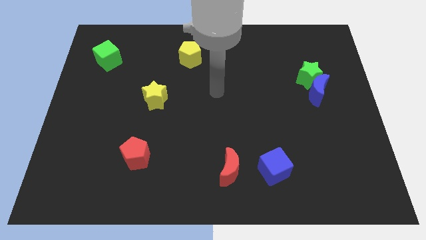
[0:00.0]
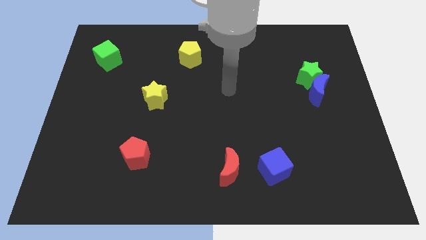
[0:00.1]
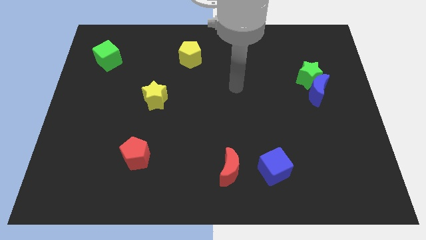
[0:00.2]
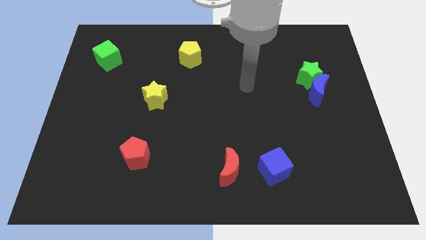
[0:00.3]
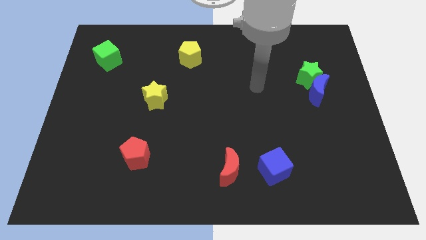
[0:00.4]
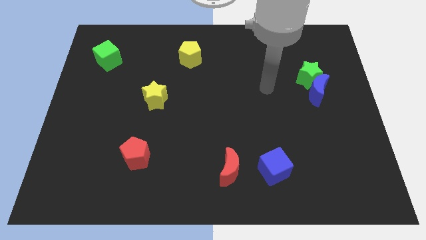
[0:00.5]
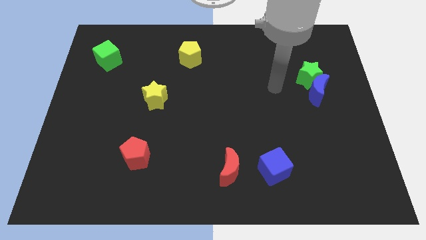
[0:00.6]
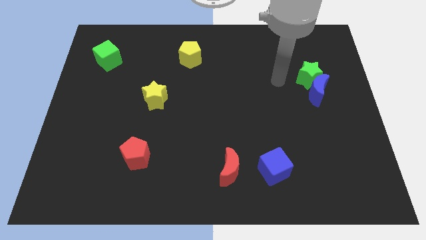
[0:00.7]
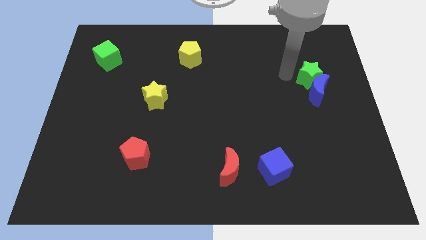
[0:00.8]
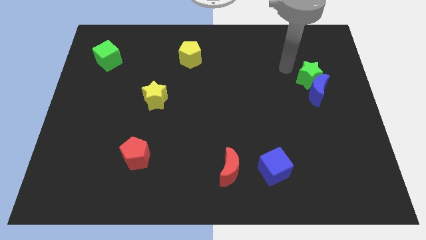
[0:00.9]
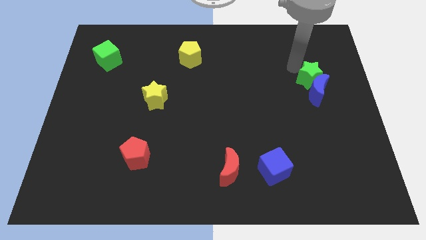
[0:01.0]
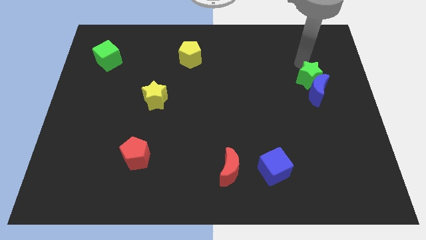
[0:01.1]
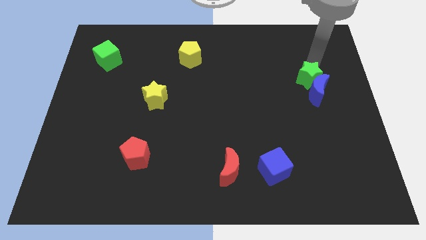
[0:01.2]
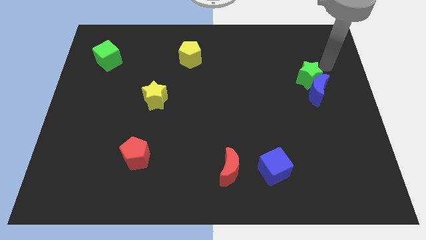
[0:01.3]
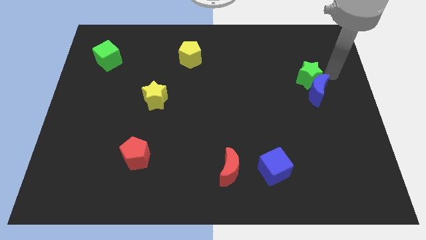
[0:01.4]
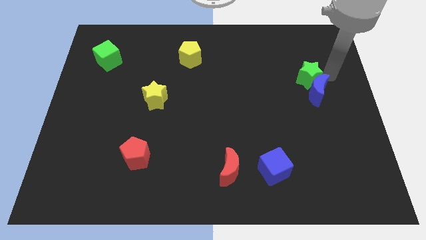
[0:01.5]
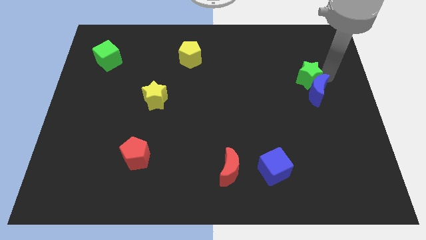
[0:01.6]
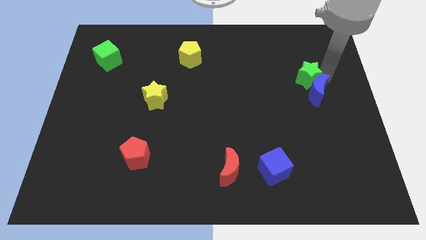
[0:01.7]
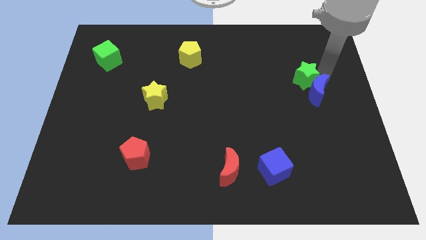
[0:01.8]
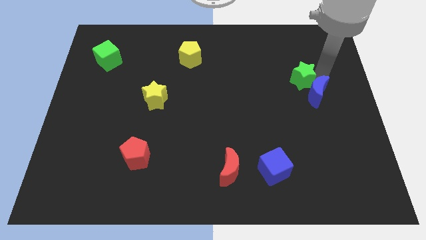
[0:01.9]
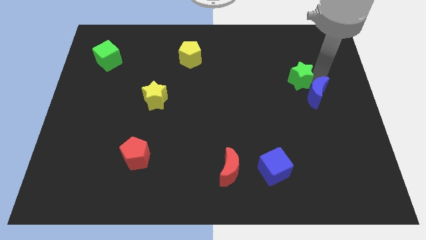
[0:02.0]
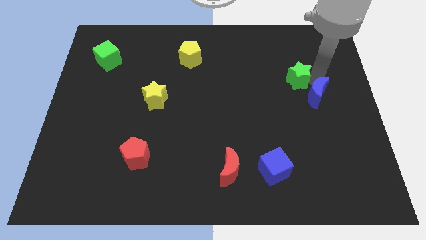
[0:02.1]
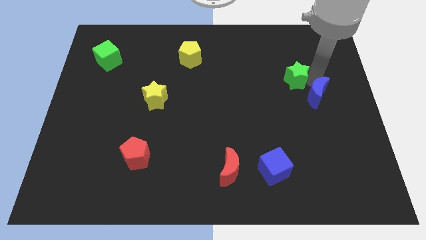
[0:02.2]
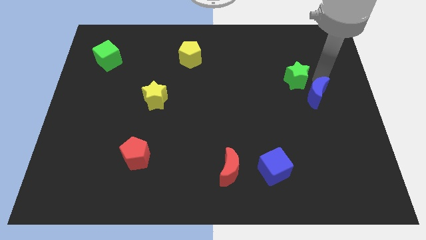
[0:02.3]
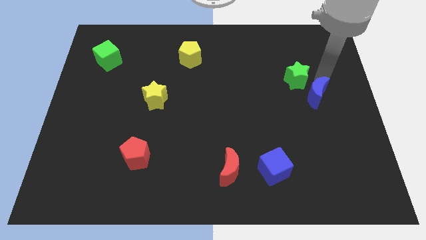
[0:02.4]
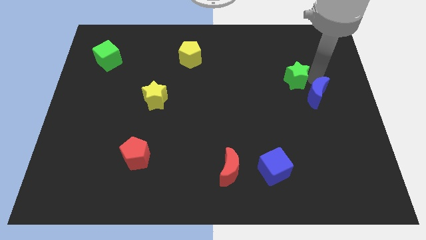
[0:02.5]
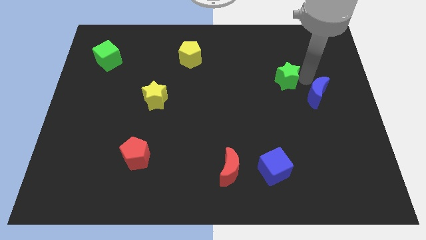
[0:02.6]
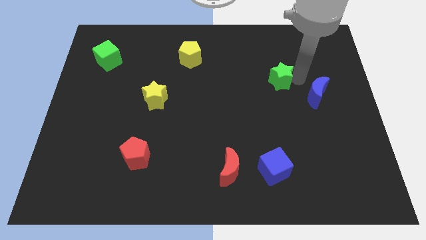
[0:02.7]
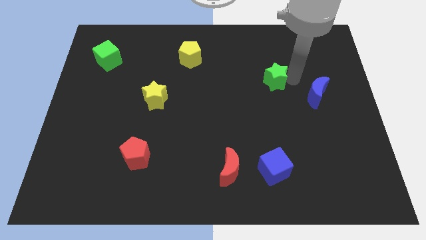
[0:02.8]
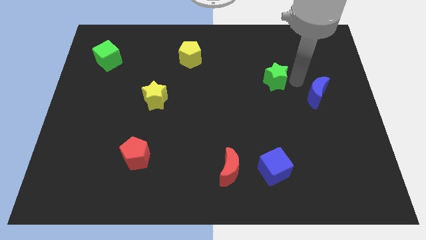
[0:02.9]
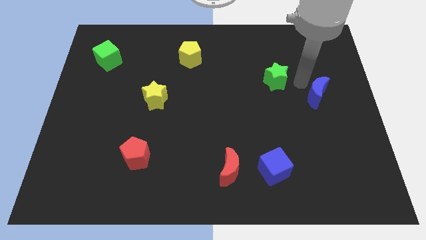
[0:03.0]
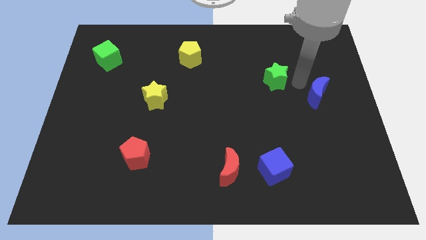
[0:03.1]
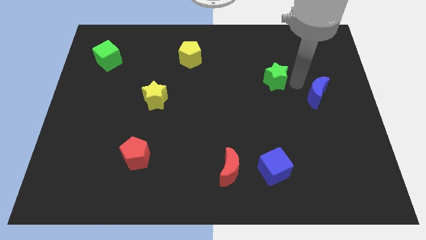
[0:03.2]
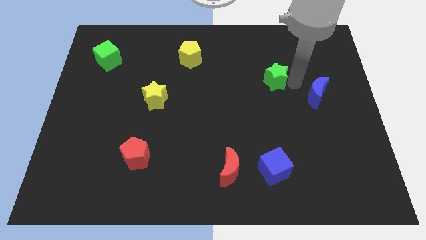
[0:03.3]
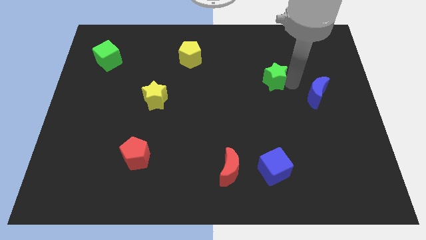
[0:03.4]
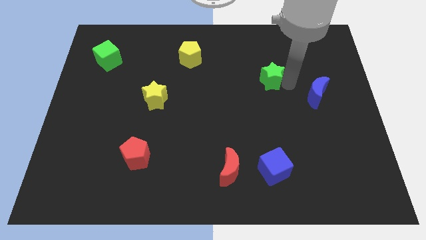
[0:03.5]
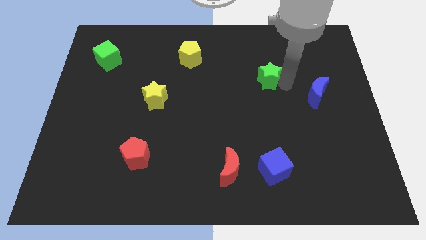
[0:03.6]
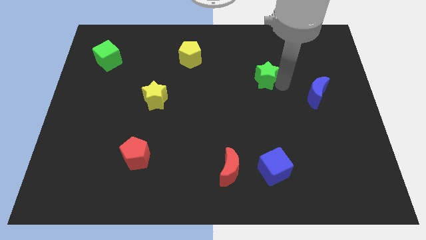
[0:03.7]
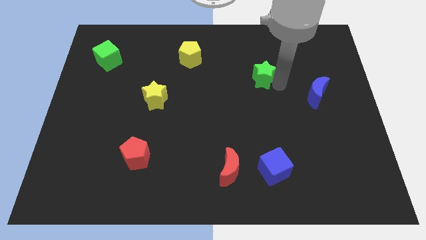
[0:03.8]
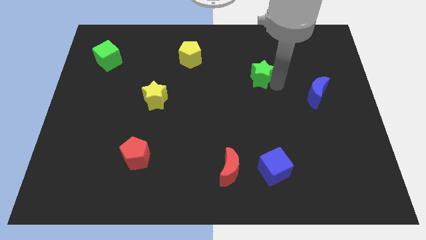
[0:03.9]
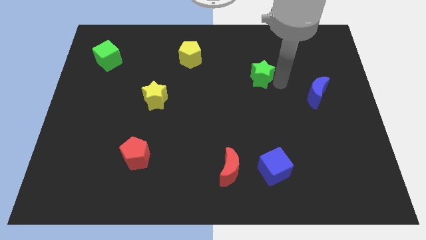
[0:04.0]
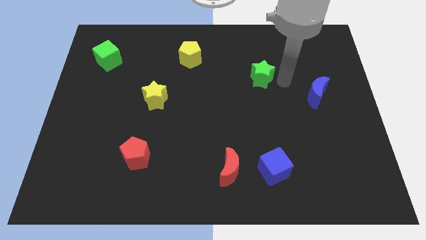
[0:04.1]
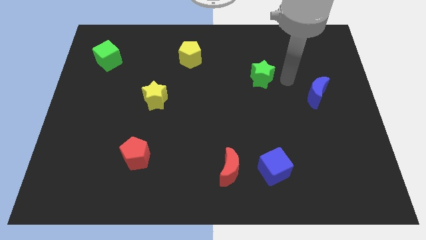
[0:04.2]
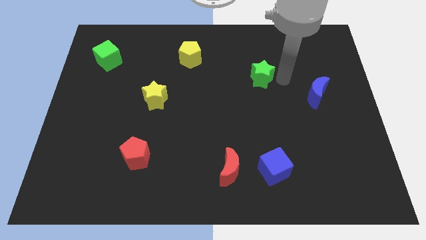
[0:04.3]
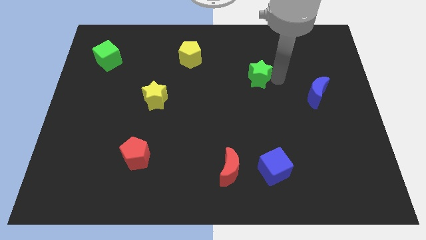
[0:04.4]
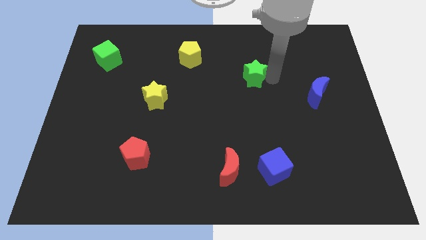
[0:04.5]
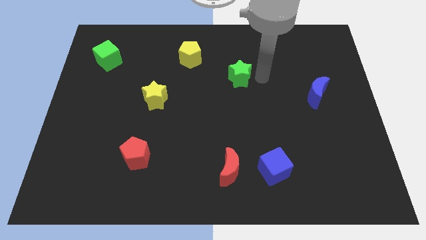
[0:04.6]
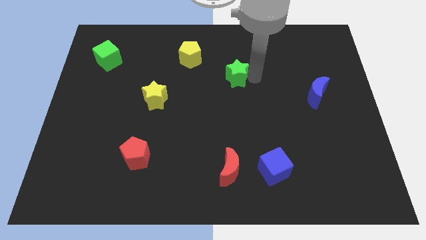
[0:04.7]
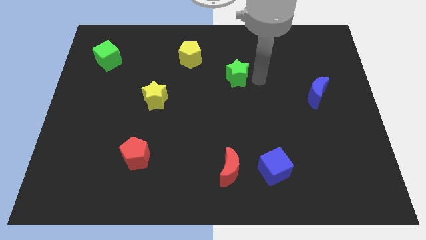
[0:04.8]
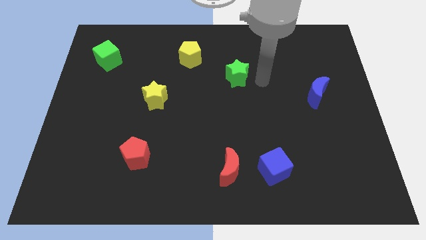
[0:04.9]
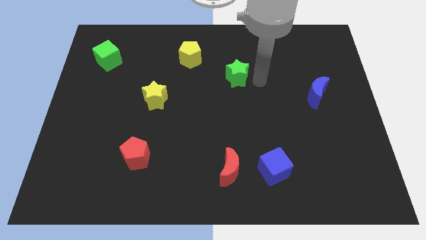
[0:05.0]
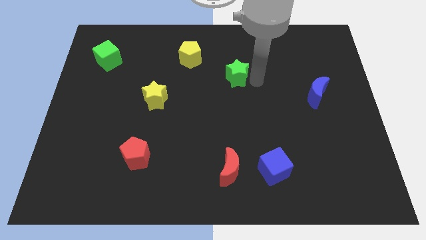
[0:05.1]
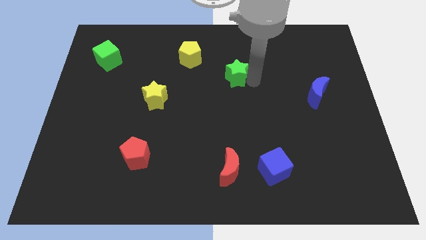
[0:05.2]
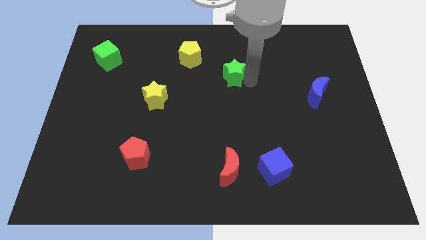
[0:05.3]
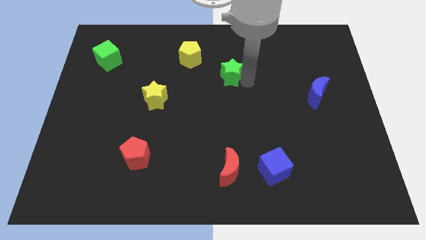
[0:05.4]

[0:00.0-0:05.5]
push the green star to the bottom right of the yellow pentagon
